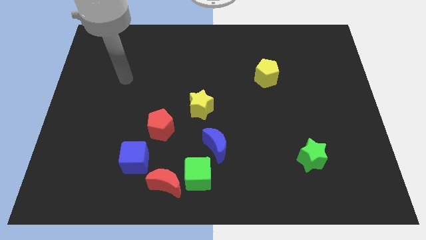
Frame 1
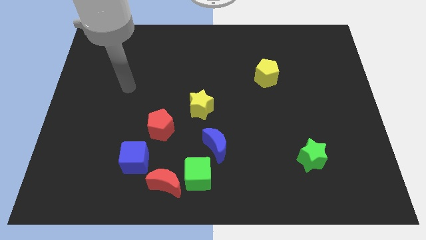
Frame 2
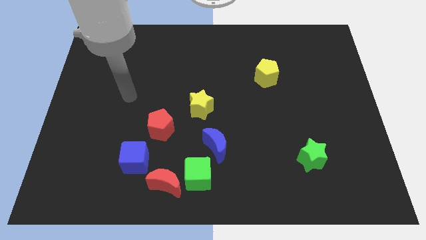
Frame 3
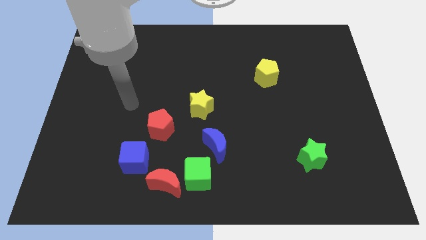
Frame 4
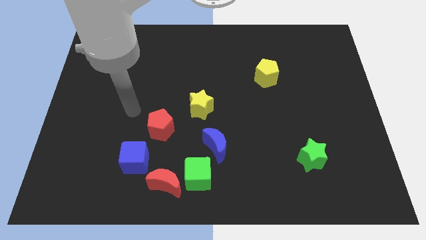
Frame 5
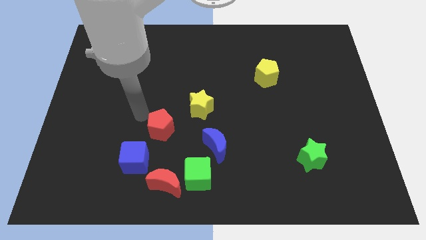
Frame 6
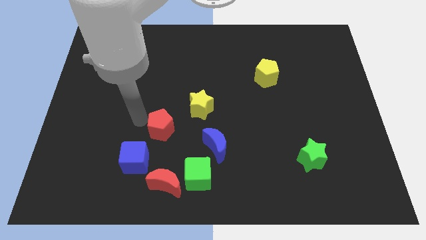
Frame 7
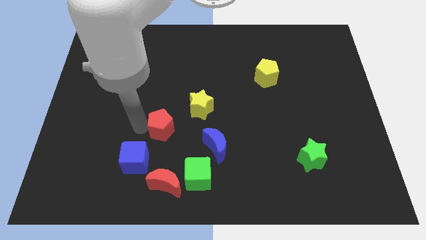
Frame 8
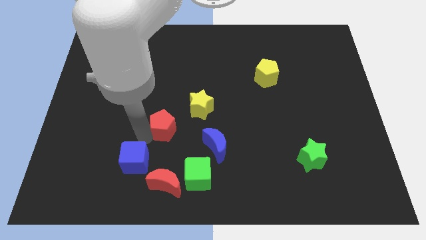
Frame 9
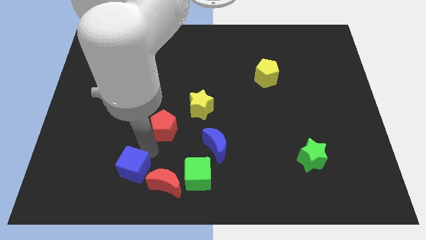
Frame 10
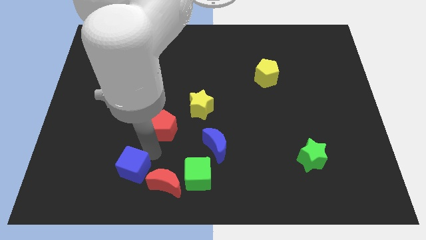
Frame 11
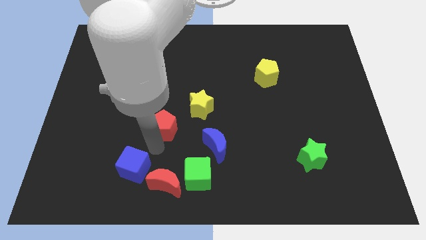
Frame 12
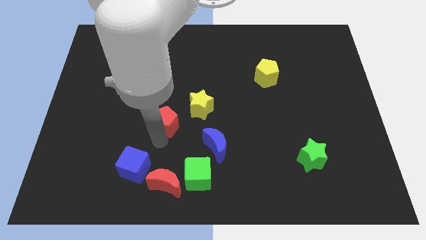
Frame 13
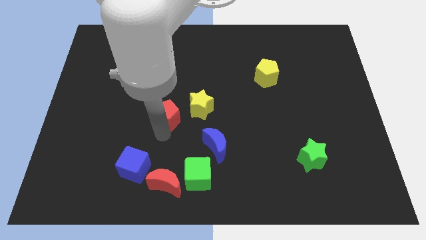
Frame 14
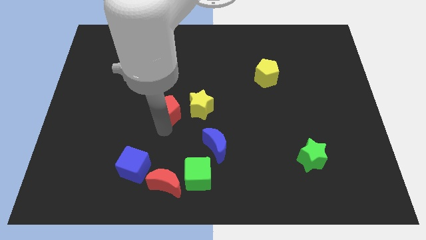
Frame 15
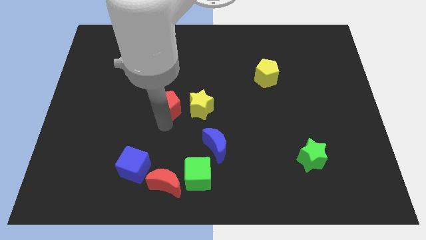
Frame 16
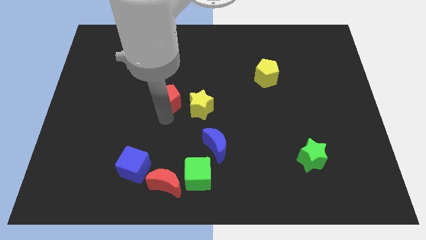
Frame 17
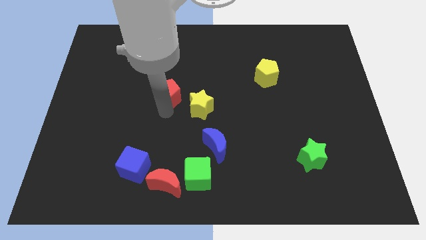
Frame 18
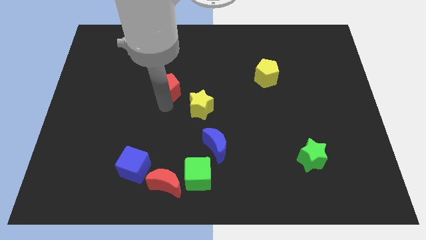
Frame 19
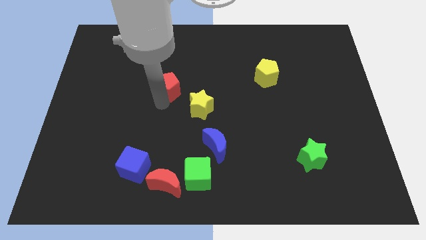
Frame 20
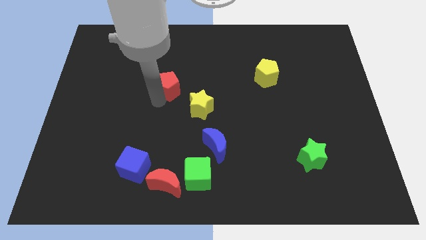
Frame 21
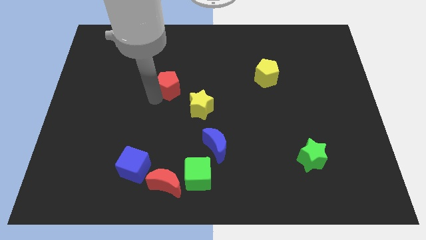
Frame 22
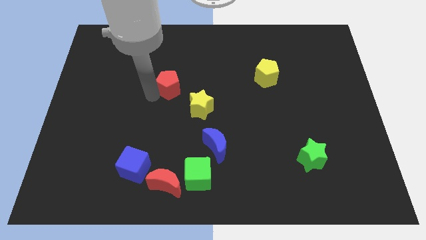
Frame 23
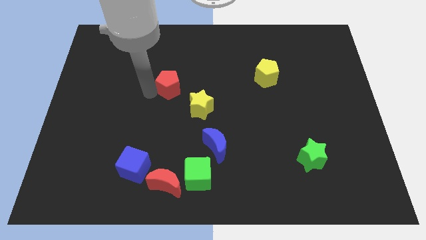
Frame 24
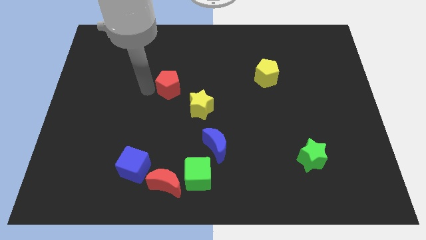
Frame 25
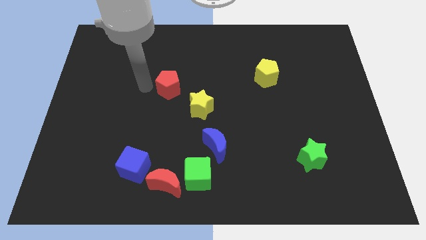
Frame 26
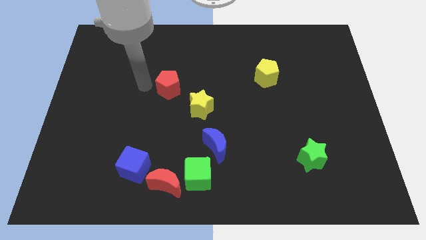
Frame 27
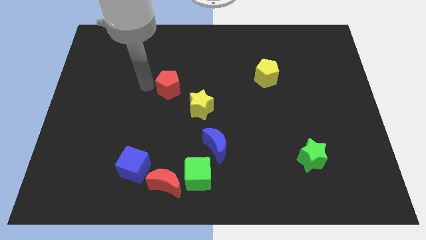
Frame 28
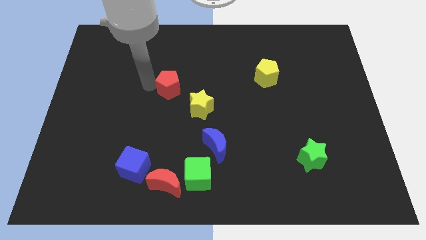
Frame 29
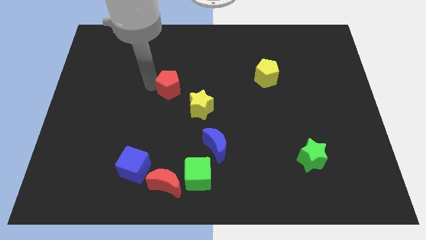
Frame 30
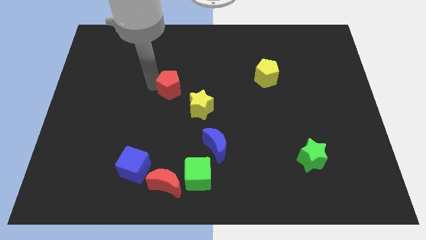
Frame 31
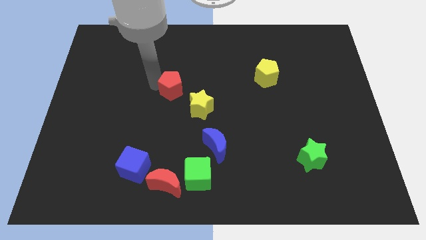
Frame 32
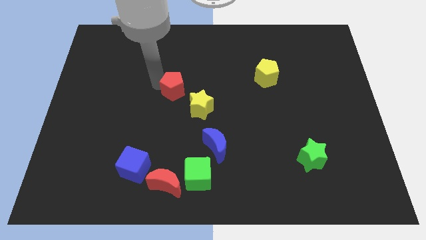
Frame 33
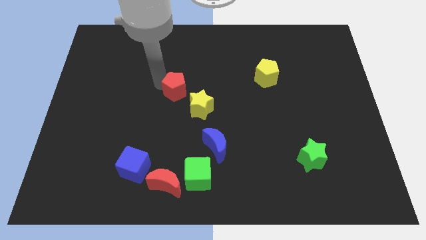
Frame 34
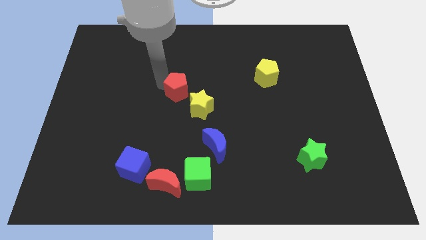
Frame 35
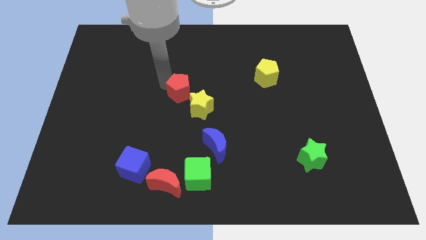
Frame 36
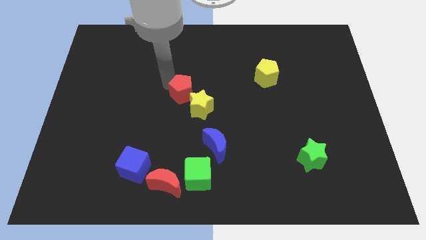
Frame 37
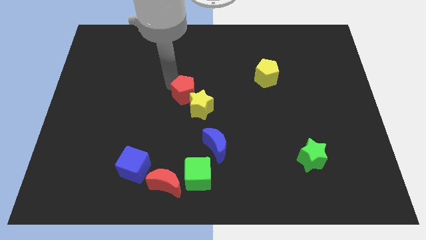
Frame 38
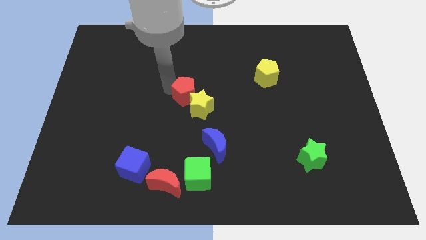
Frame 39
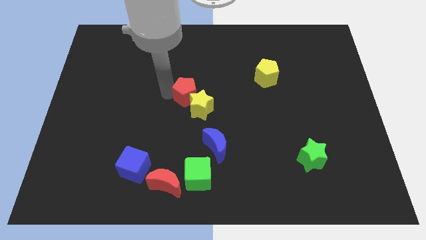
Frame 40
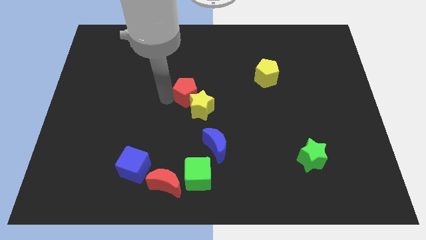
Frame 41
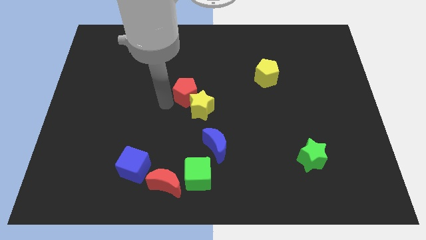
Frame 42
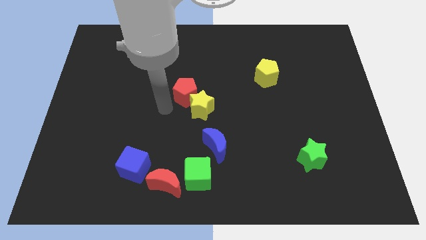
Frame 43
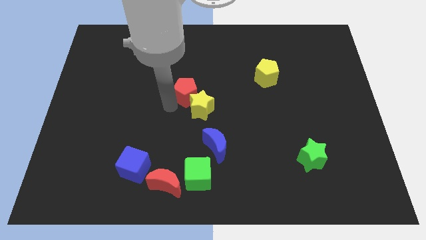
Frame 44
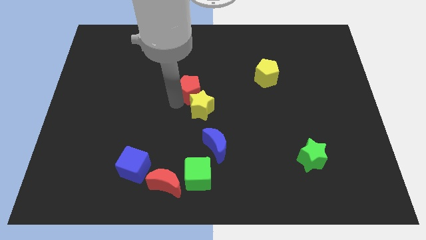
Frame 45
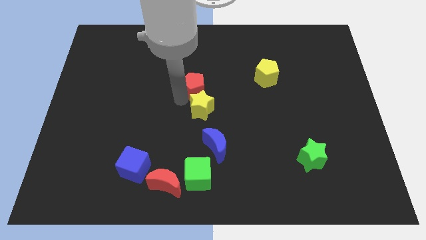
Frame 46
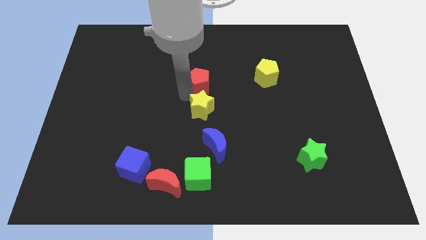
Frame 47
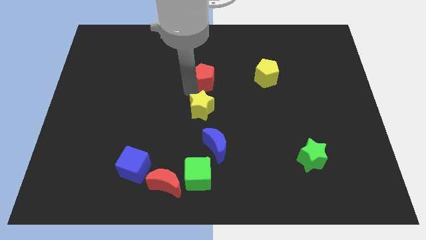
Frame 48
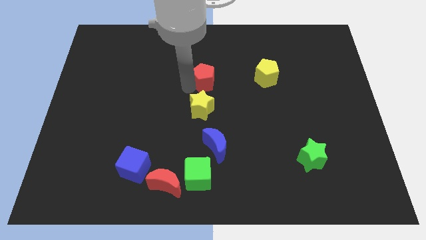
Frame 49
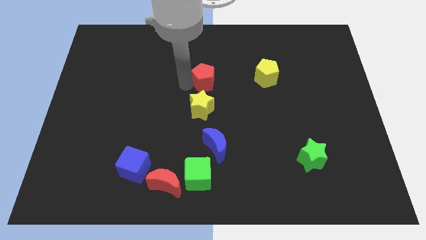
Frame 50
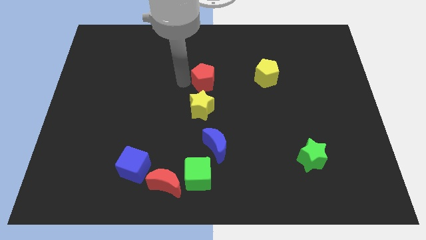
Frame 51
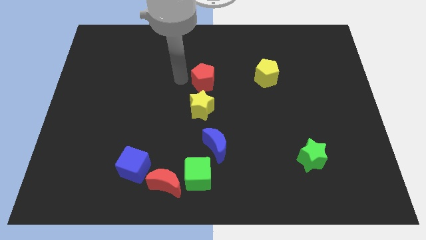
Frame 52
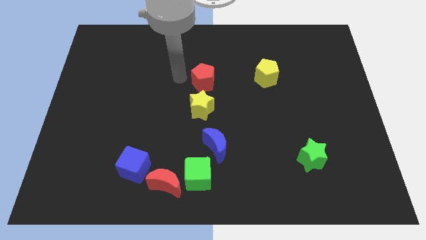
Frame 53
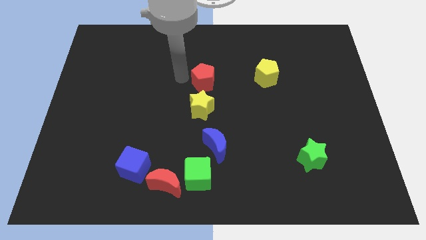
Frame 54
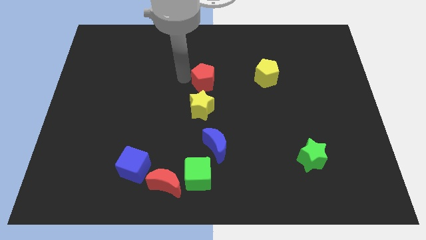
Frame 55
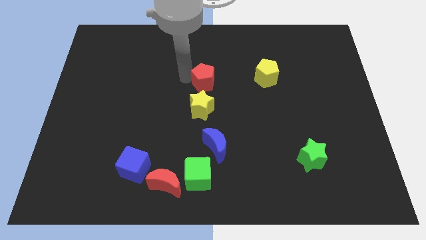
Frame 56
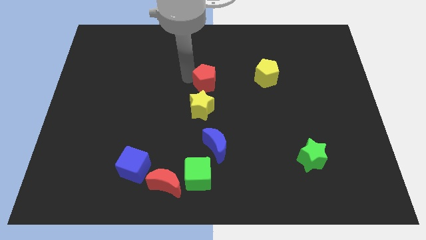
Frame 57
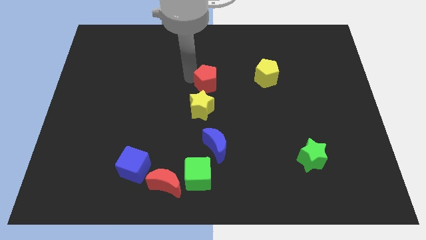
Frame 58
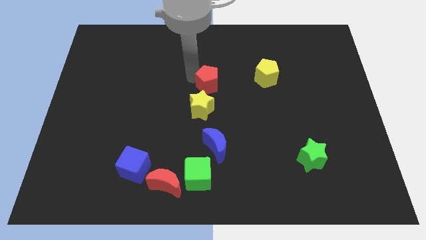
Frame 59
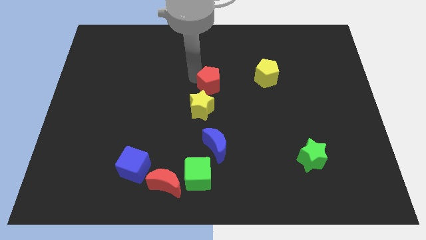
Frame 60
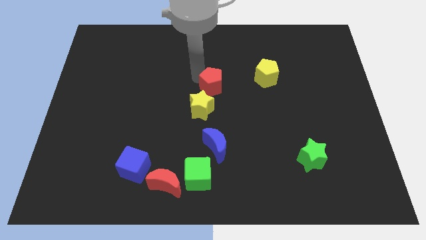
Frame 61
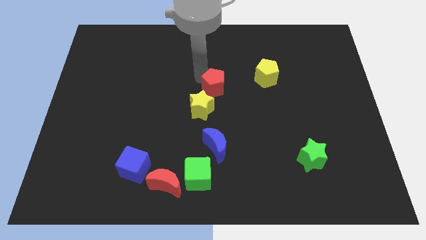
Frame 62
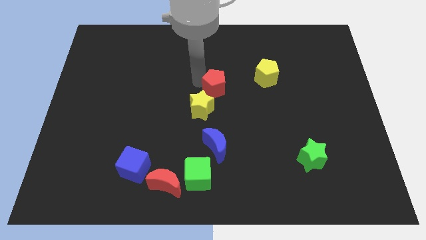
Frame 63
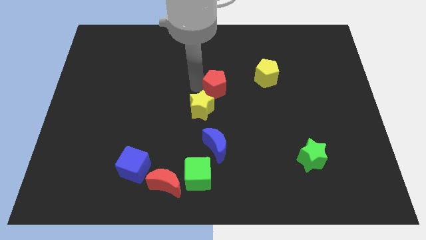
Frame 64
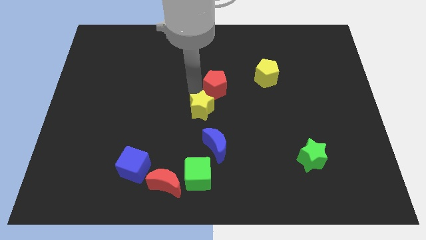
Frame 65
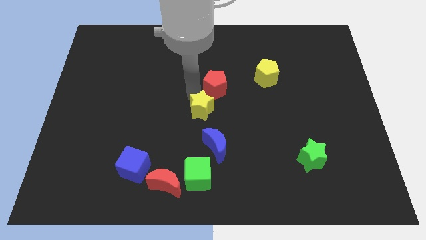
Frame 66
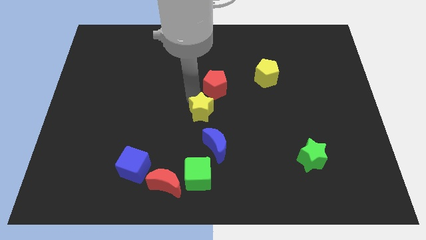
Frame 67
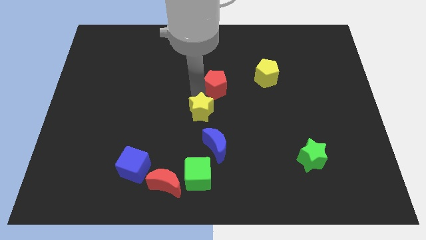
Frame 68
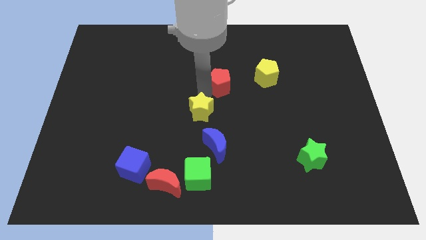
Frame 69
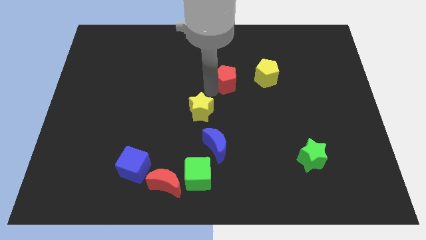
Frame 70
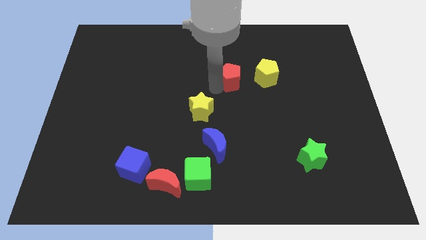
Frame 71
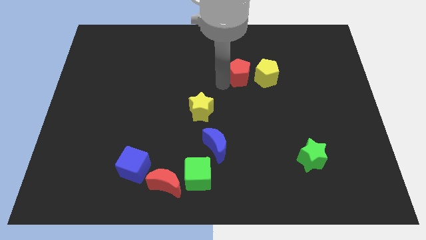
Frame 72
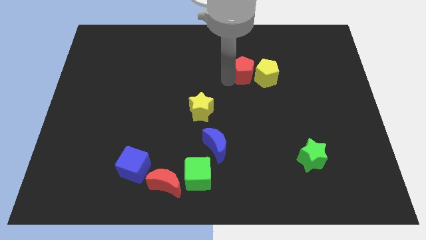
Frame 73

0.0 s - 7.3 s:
put the red pentagon next to the yellow pentagon
